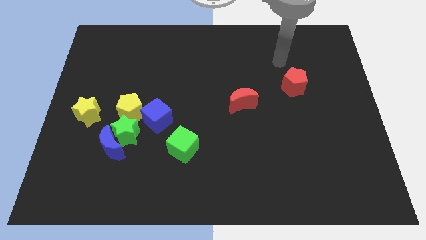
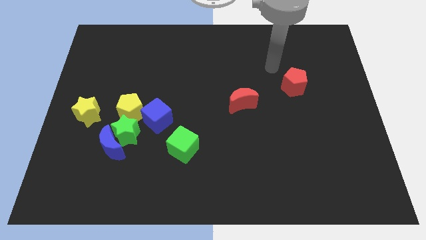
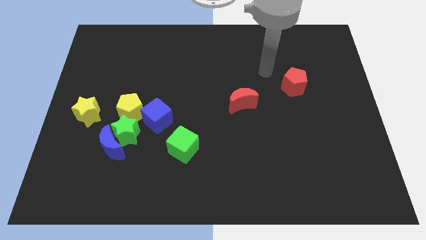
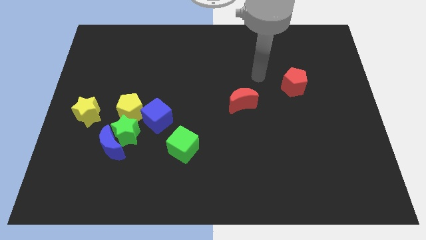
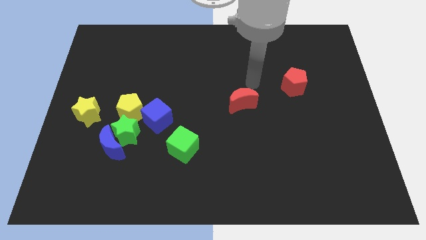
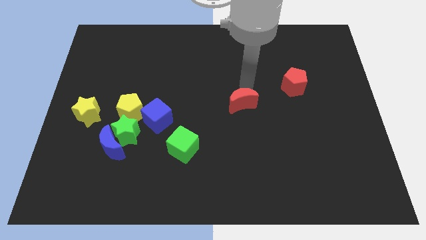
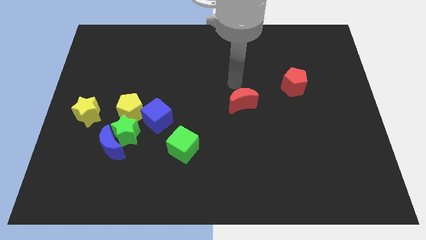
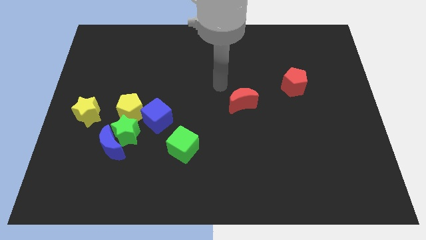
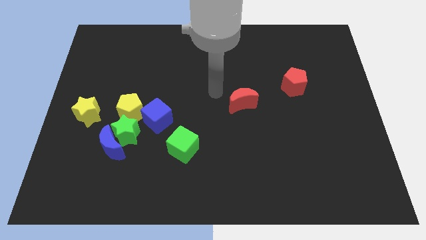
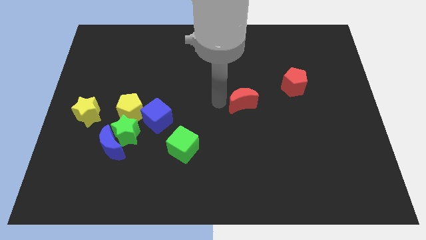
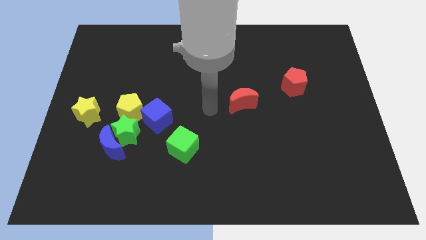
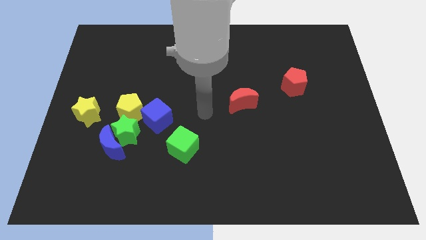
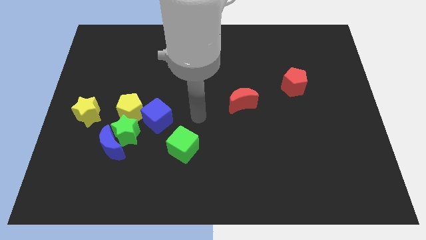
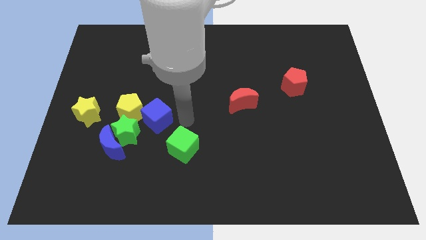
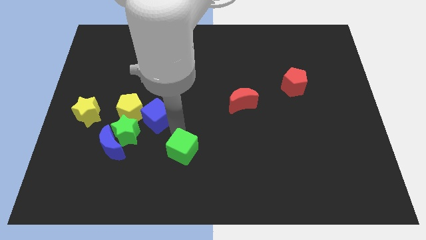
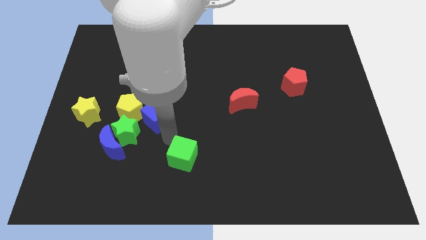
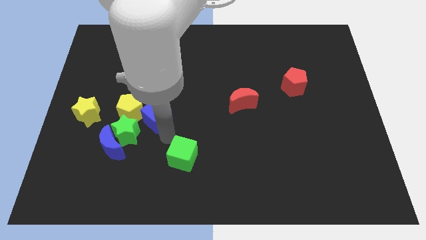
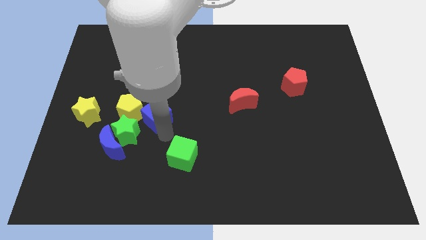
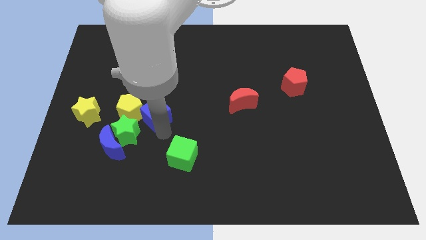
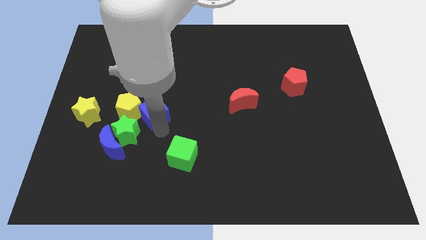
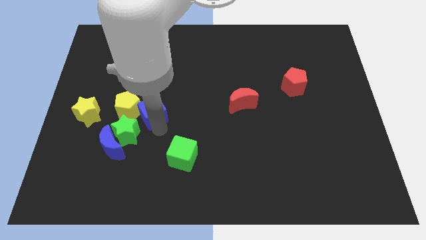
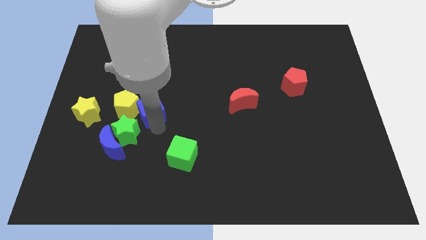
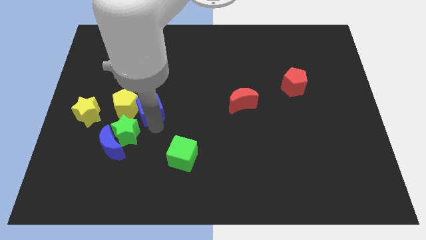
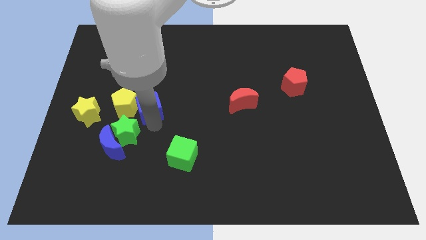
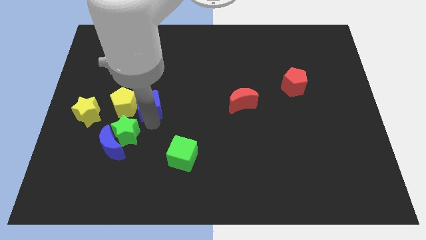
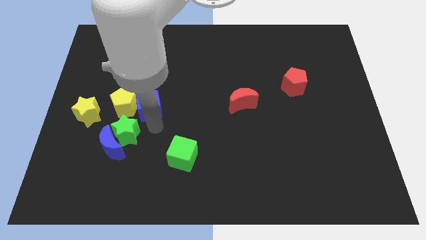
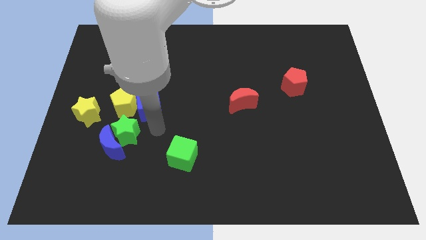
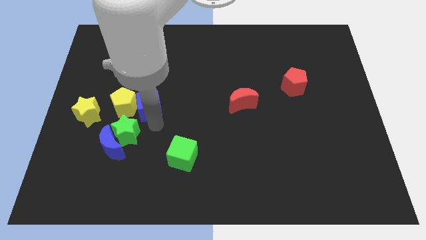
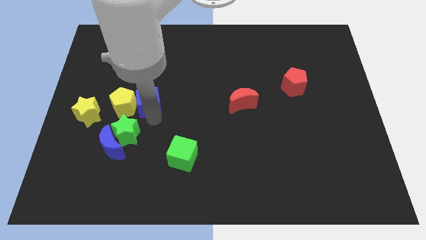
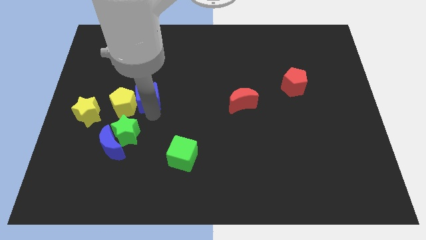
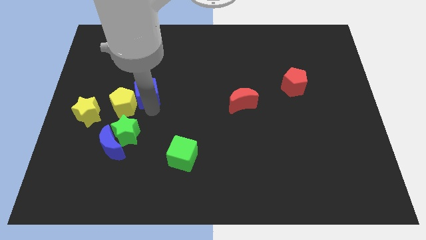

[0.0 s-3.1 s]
slide the blue cube somewhat up and left diagonally

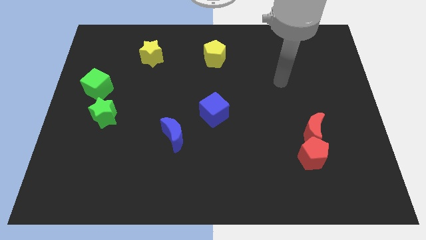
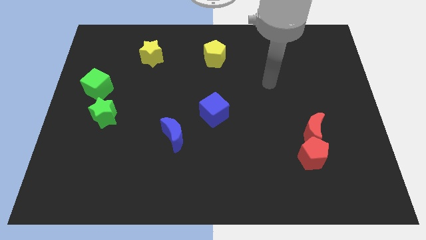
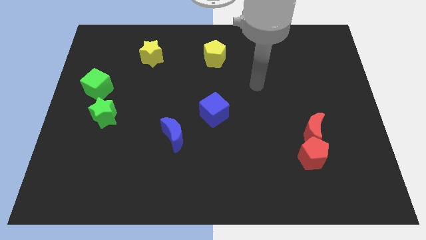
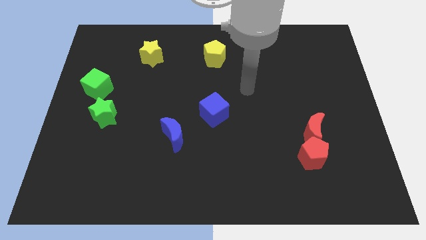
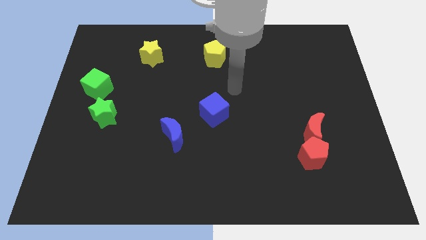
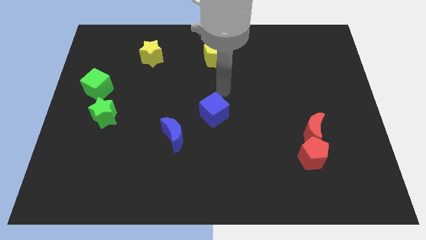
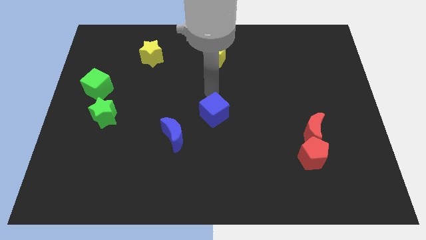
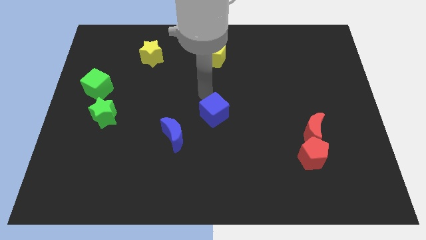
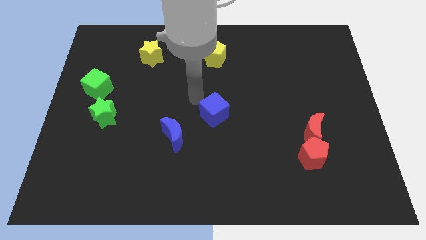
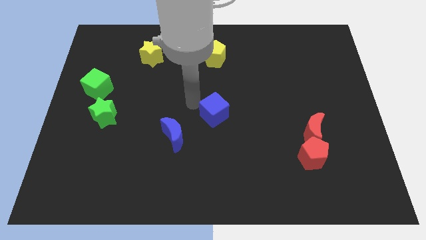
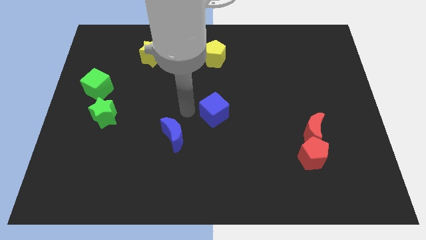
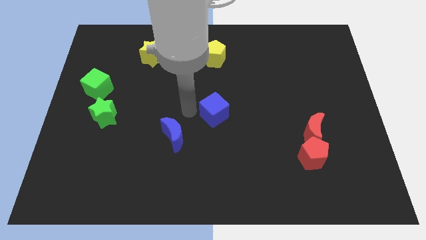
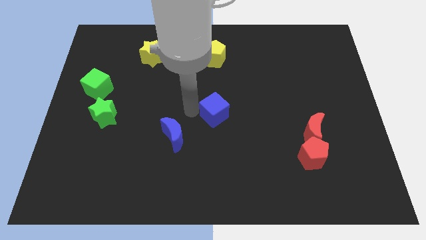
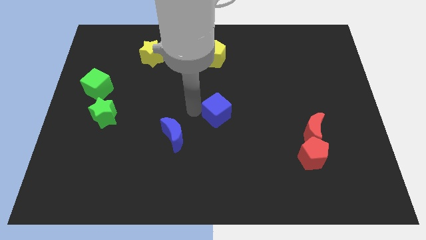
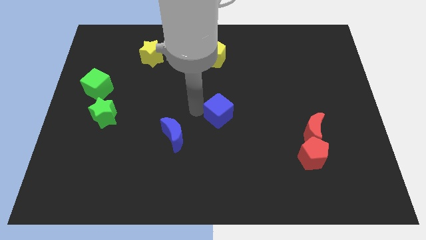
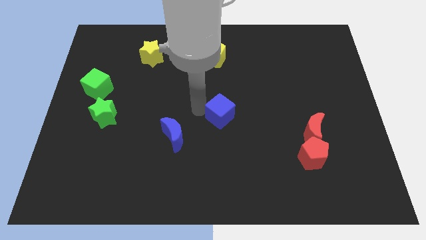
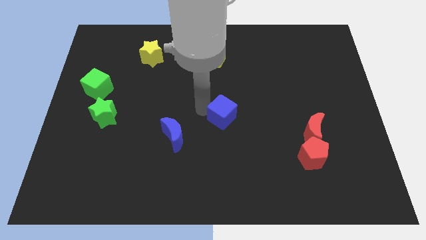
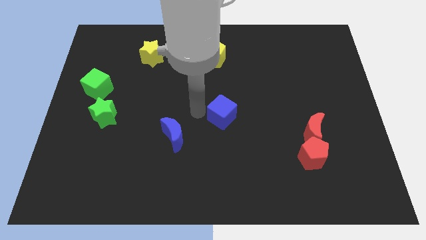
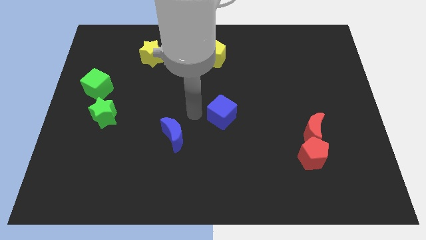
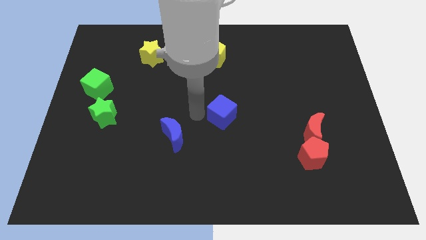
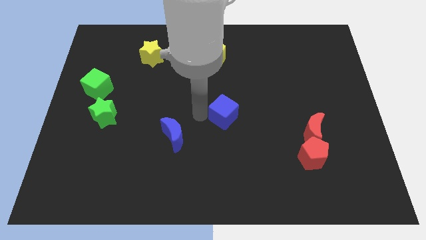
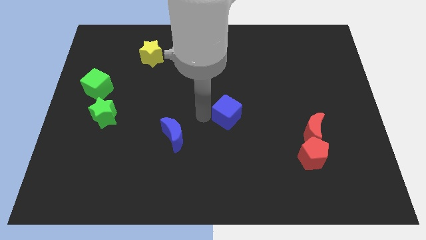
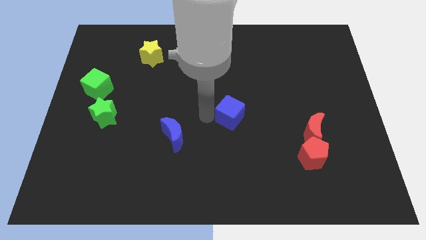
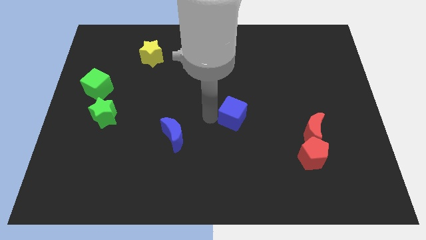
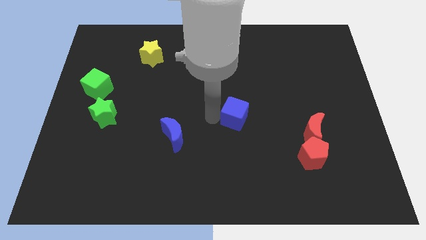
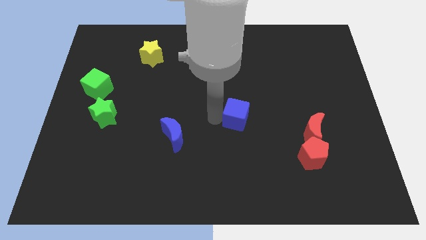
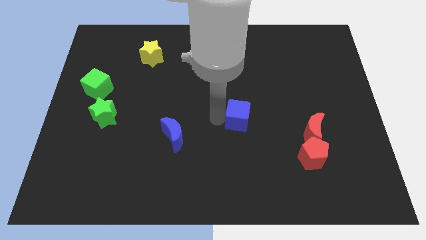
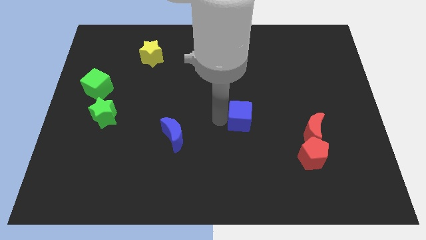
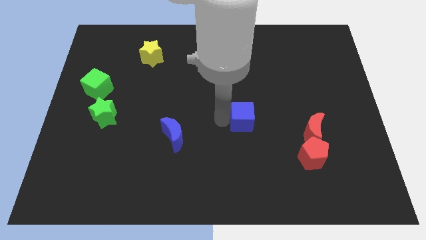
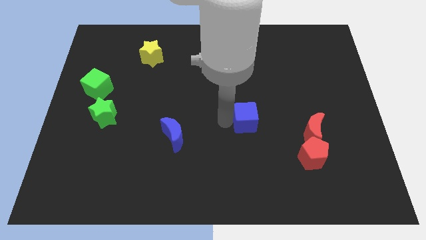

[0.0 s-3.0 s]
move the blue cube slightly right

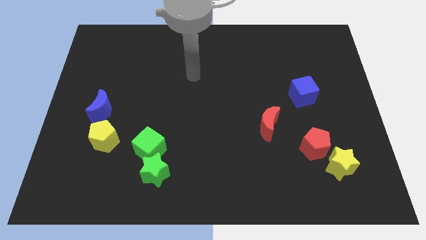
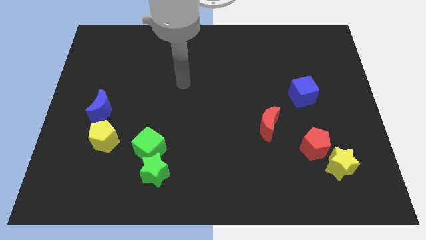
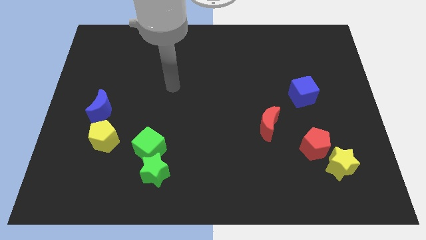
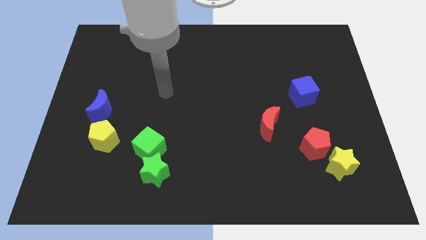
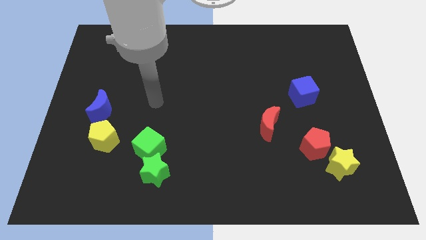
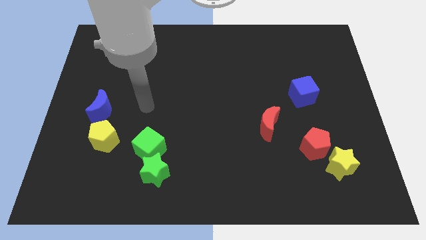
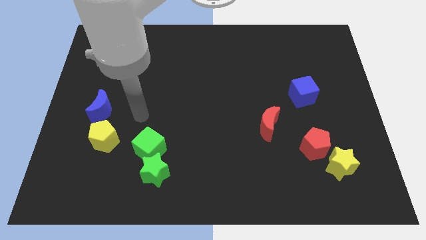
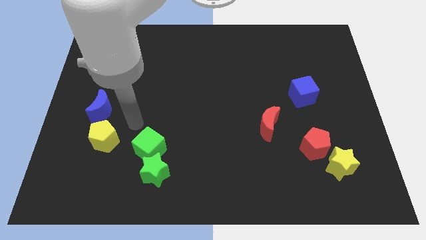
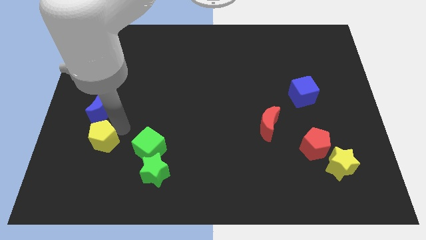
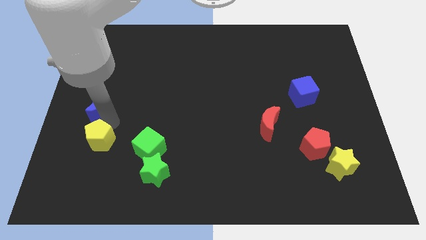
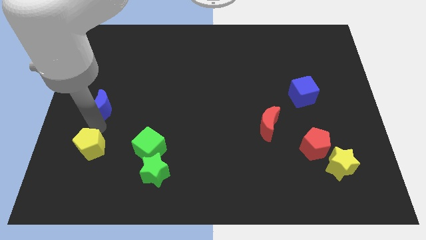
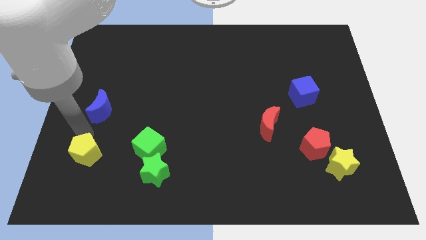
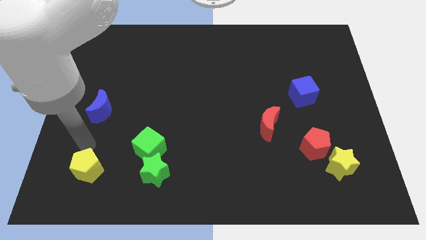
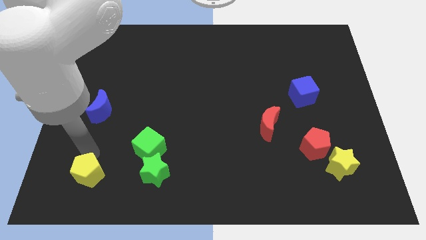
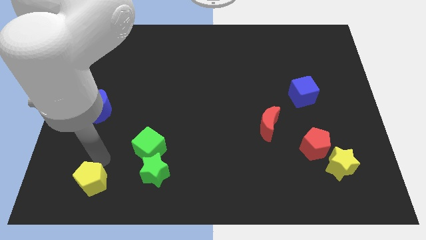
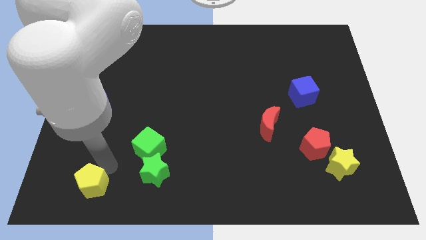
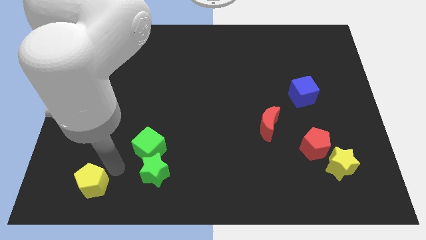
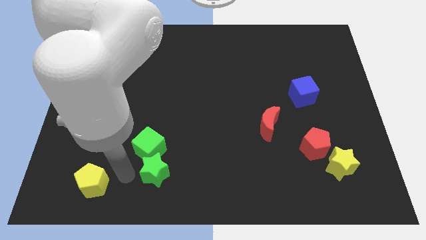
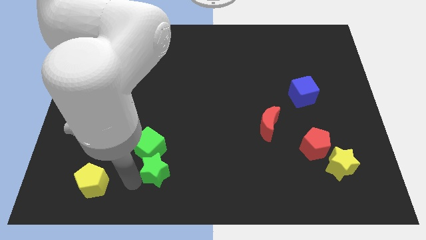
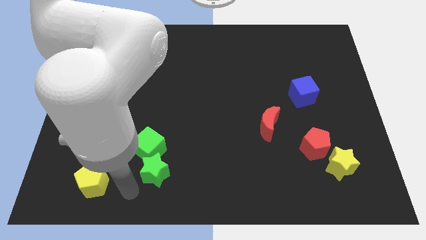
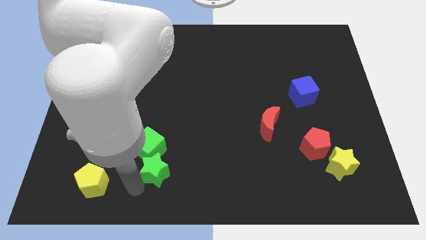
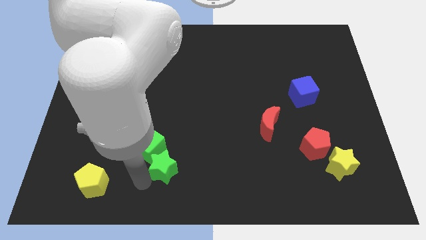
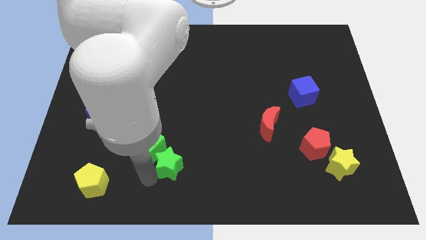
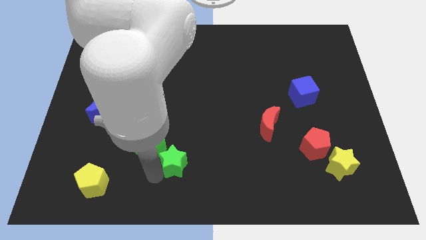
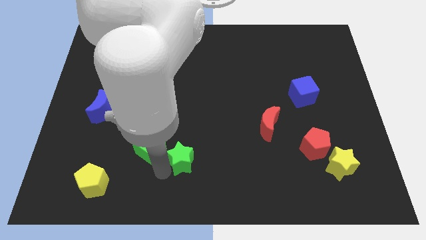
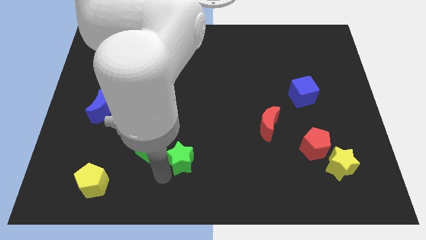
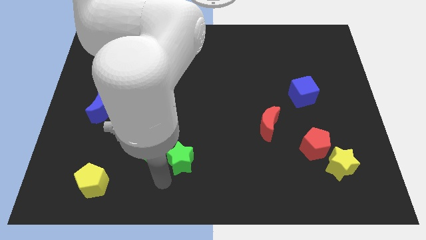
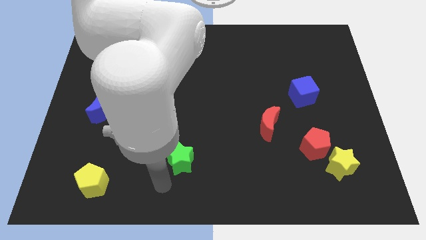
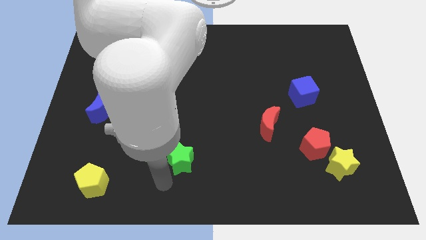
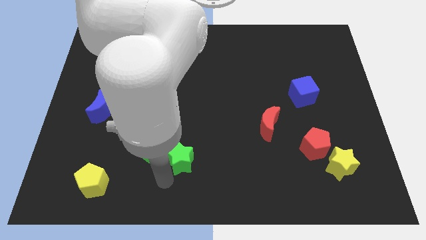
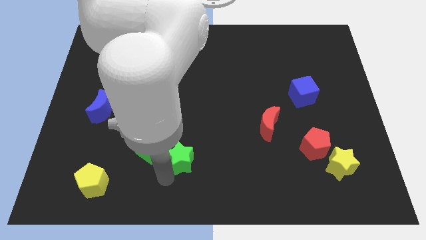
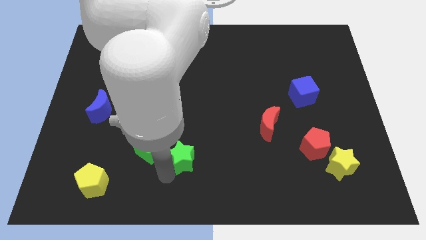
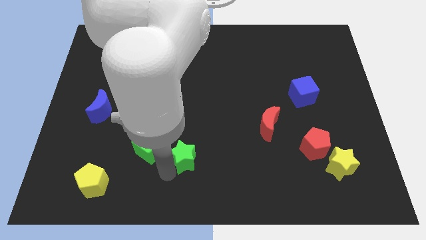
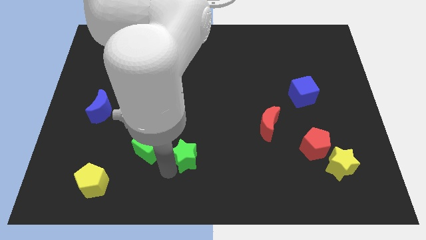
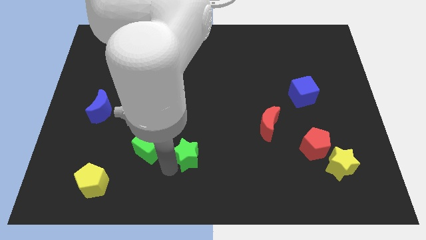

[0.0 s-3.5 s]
push the green star up and to the right a bit
